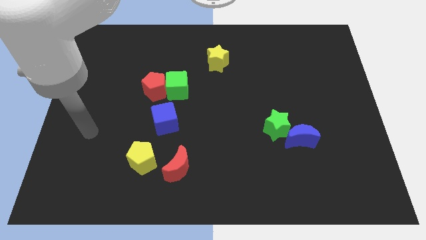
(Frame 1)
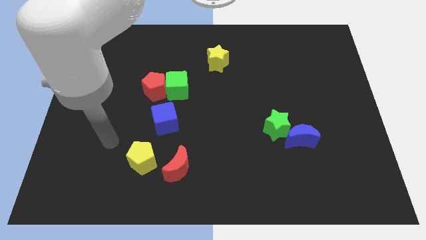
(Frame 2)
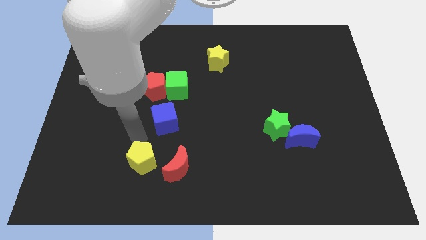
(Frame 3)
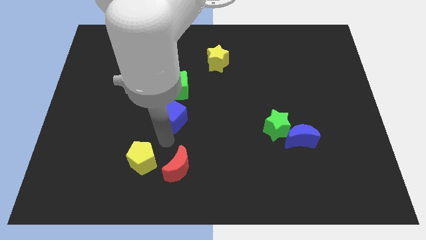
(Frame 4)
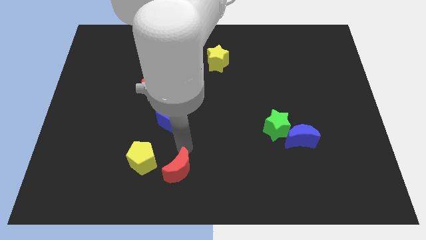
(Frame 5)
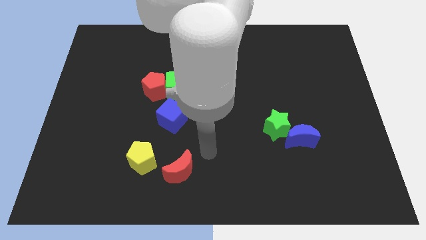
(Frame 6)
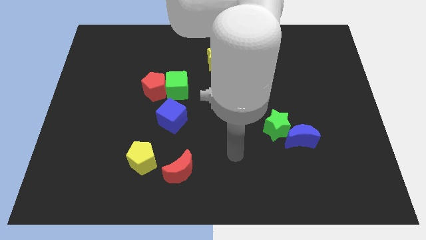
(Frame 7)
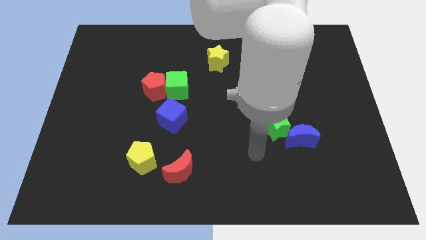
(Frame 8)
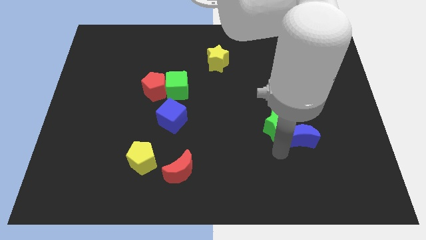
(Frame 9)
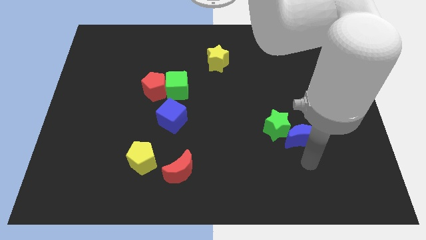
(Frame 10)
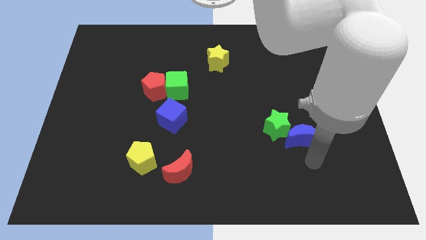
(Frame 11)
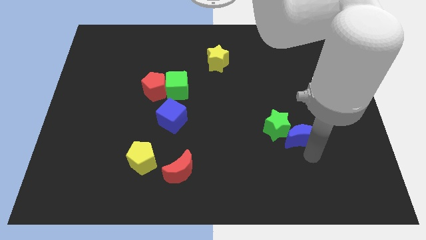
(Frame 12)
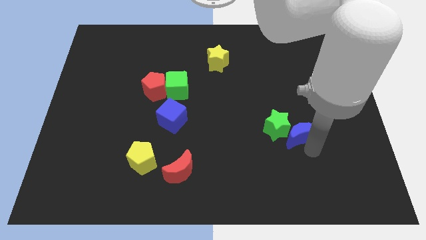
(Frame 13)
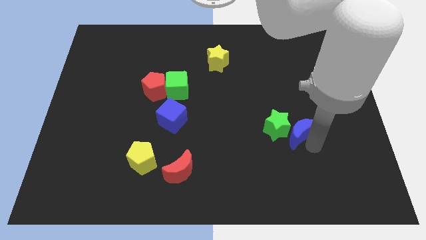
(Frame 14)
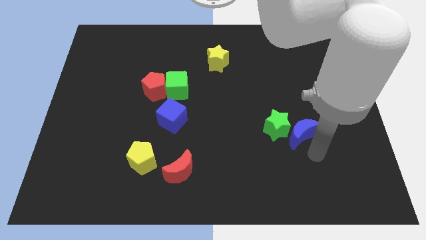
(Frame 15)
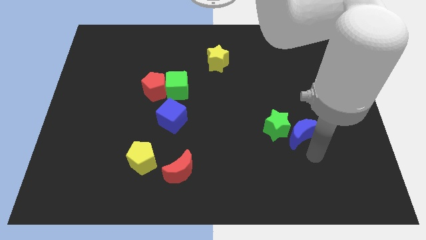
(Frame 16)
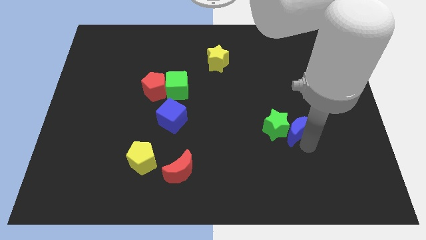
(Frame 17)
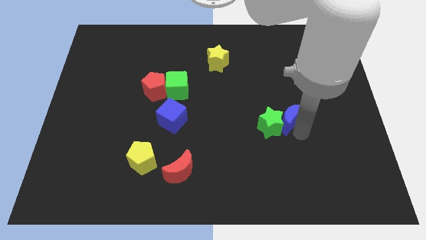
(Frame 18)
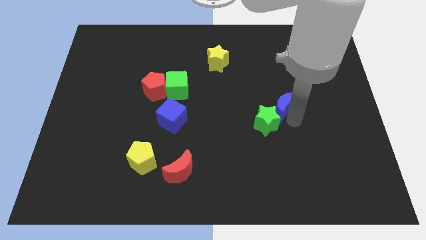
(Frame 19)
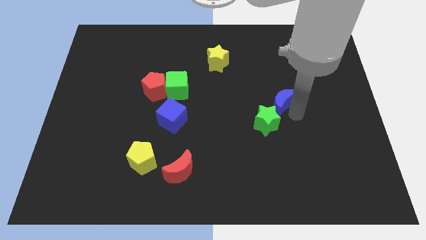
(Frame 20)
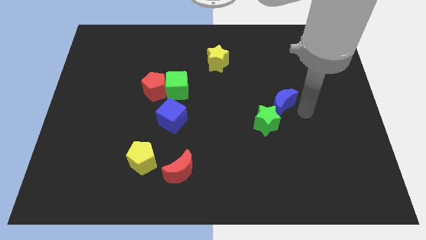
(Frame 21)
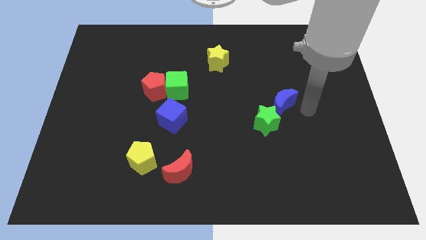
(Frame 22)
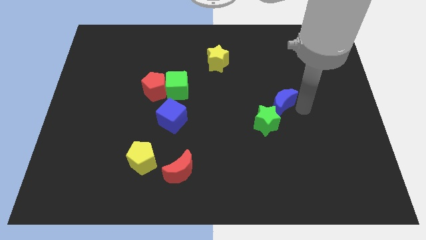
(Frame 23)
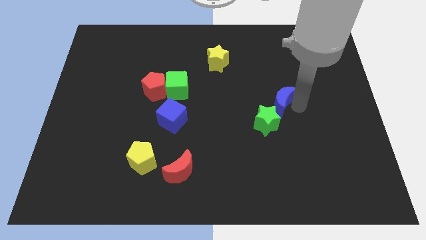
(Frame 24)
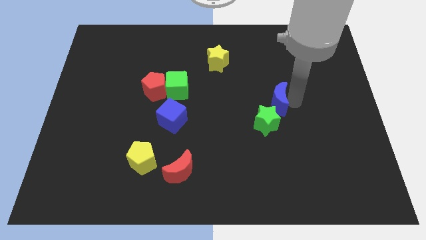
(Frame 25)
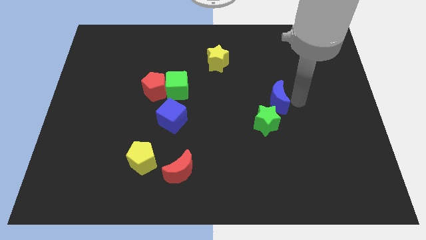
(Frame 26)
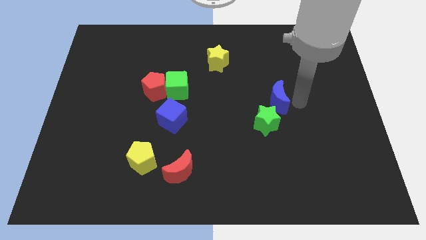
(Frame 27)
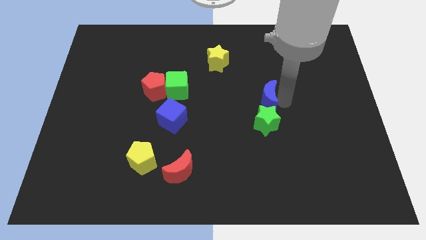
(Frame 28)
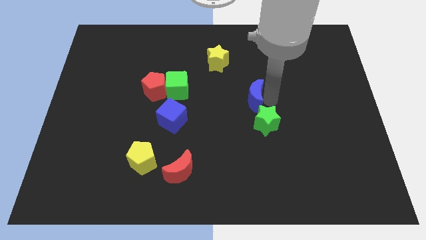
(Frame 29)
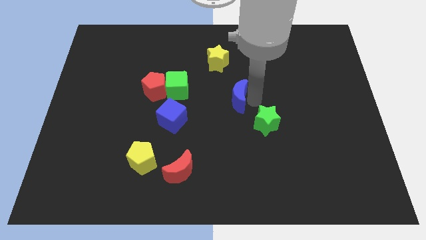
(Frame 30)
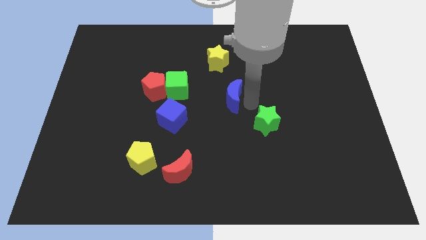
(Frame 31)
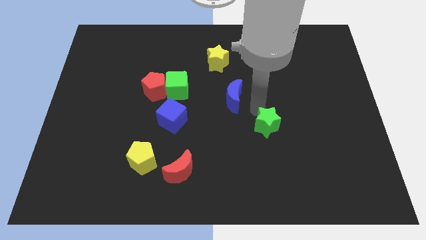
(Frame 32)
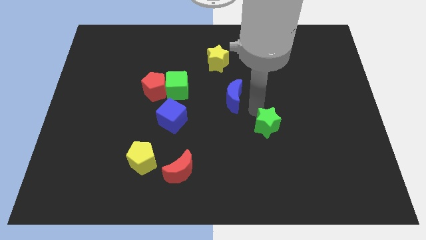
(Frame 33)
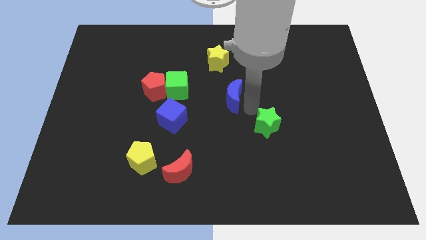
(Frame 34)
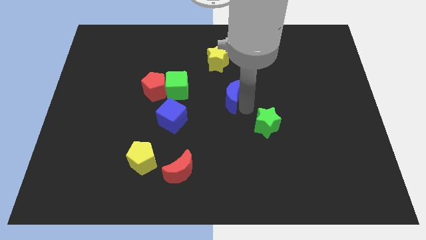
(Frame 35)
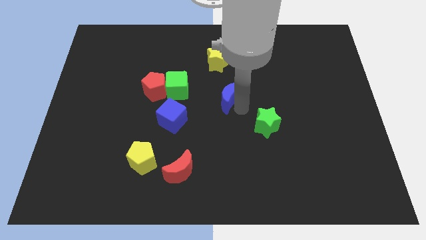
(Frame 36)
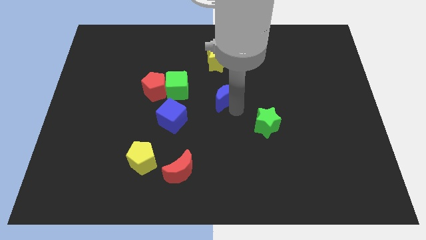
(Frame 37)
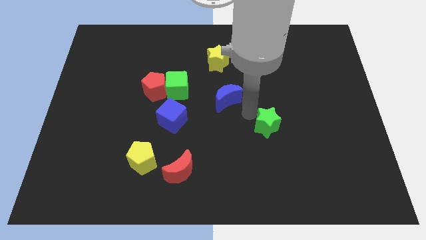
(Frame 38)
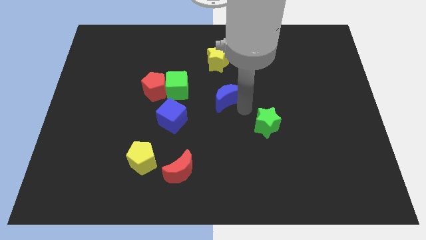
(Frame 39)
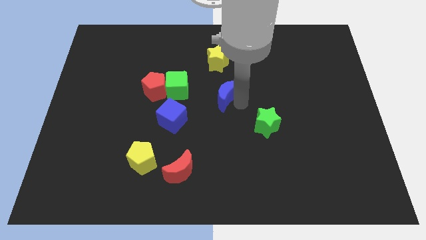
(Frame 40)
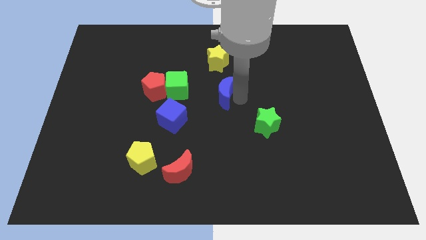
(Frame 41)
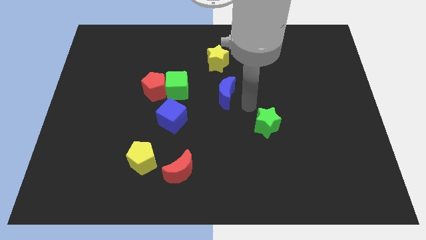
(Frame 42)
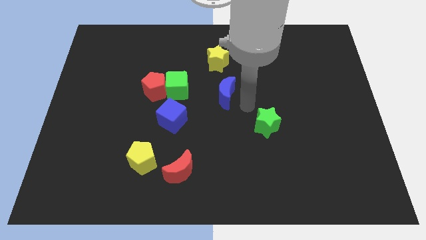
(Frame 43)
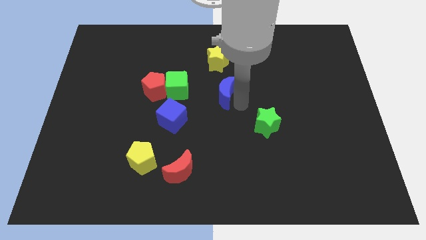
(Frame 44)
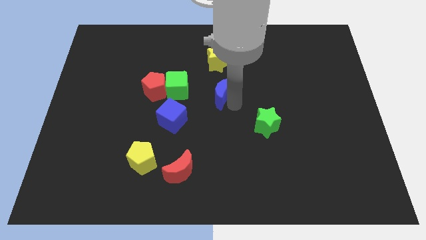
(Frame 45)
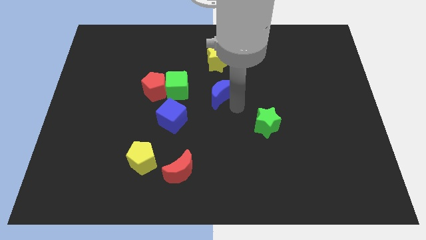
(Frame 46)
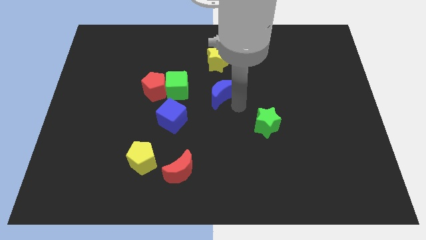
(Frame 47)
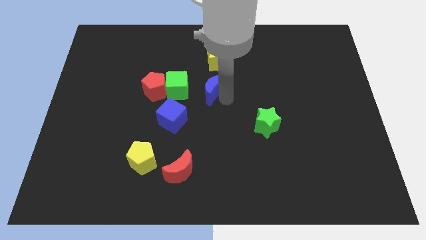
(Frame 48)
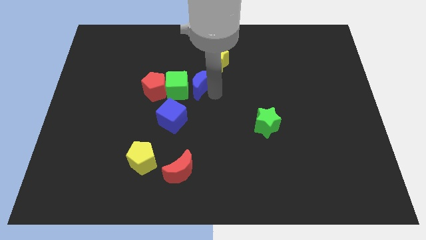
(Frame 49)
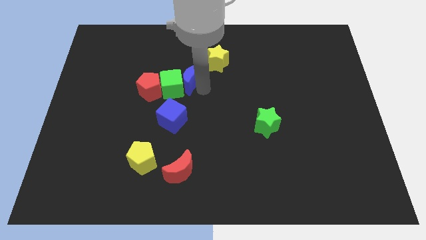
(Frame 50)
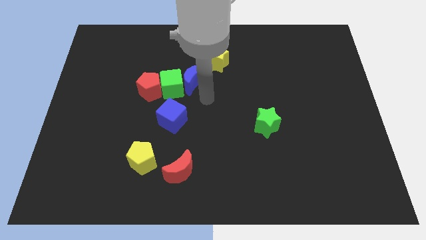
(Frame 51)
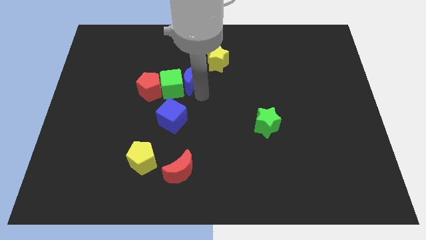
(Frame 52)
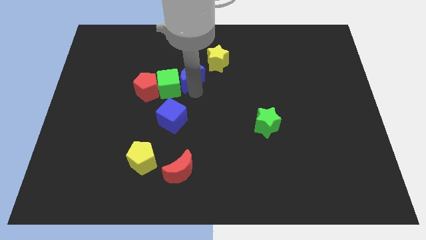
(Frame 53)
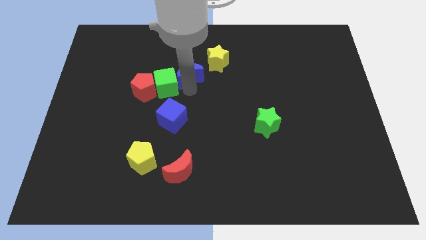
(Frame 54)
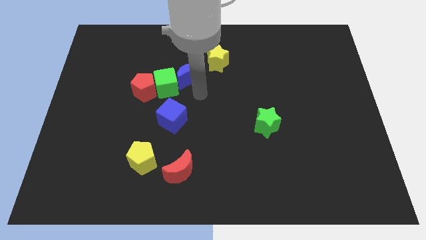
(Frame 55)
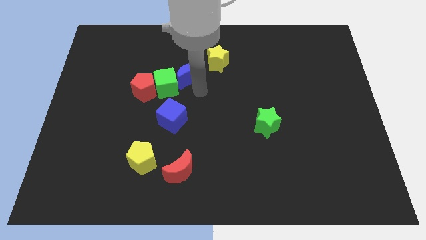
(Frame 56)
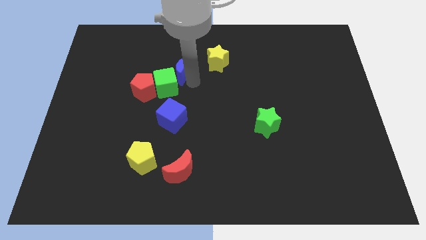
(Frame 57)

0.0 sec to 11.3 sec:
slide the blue moon just left of the yellow star

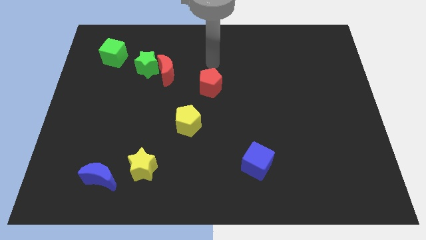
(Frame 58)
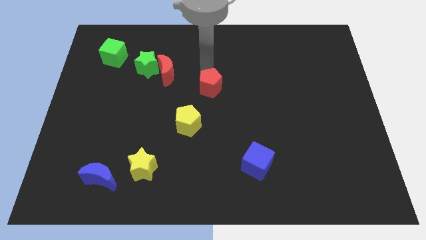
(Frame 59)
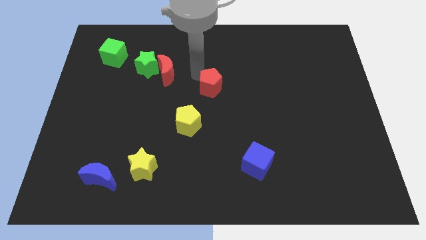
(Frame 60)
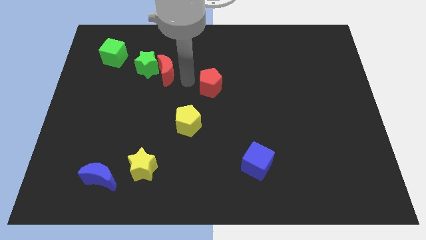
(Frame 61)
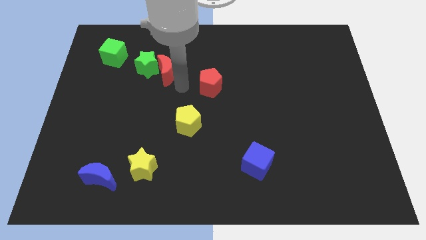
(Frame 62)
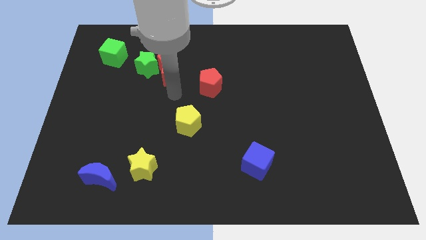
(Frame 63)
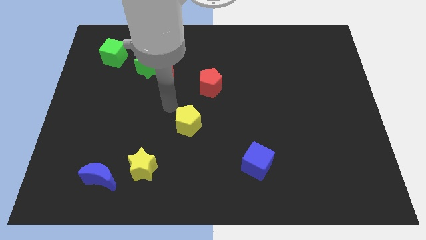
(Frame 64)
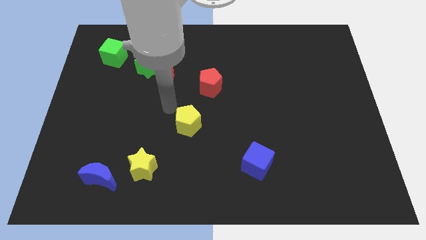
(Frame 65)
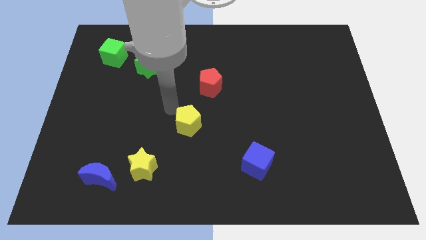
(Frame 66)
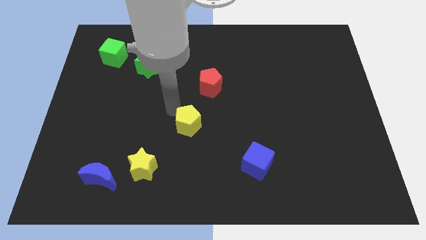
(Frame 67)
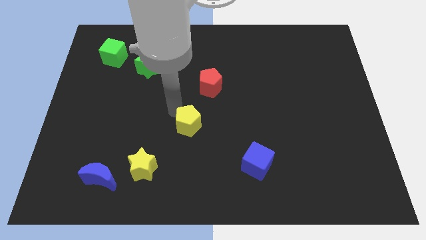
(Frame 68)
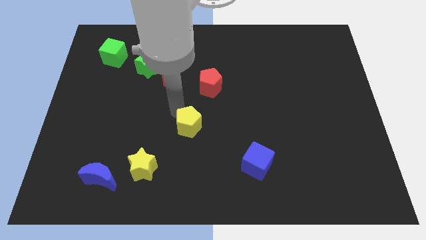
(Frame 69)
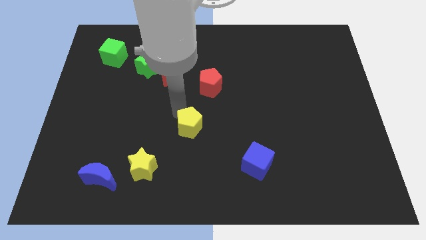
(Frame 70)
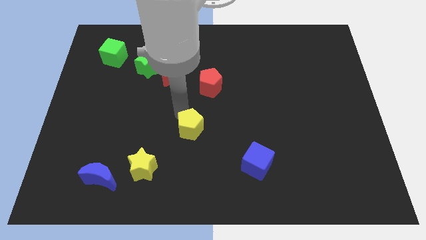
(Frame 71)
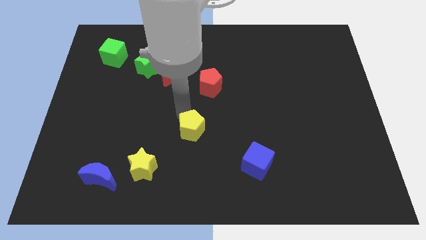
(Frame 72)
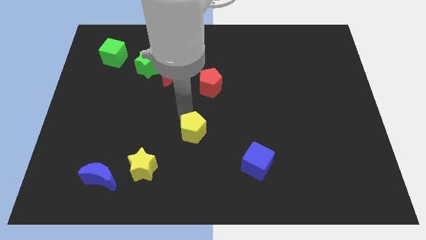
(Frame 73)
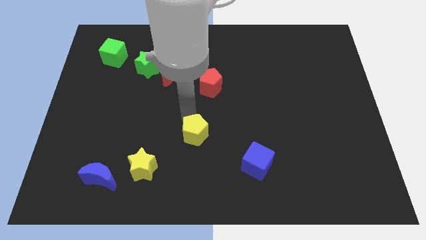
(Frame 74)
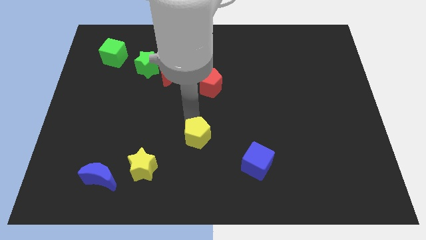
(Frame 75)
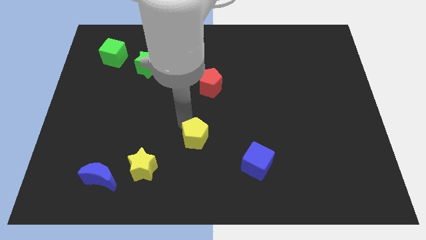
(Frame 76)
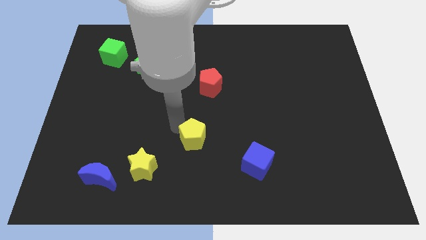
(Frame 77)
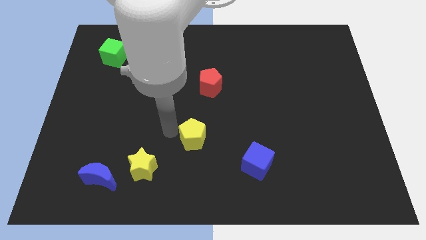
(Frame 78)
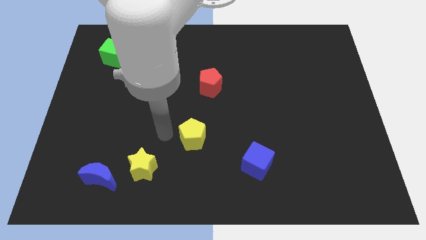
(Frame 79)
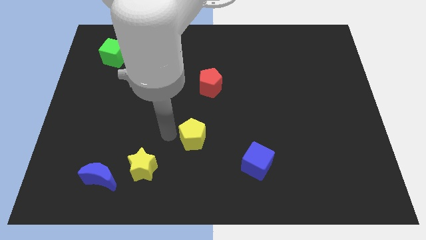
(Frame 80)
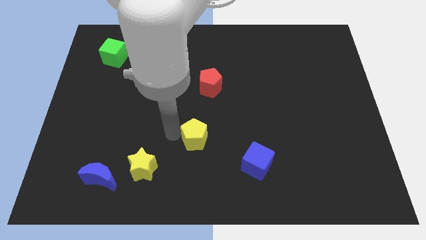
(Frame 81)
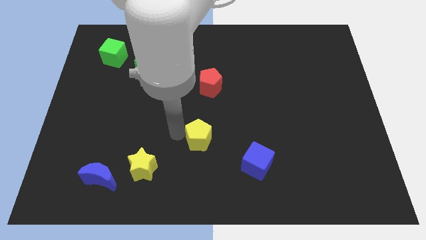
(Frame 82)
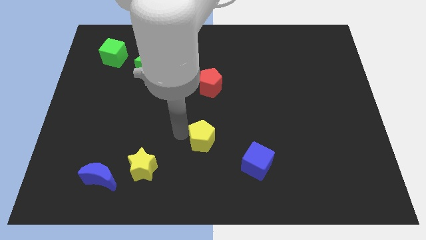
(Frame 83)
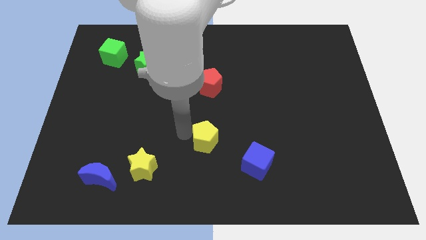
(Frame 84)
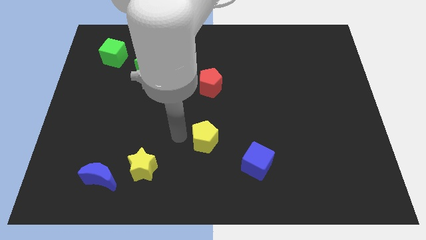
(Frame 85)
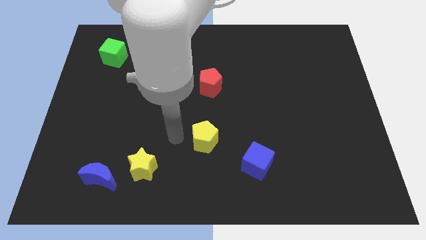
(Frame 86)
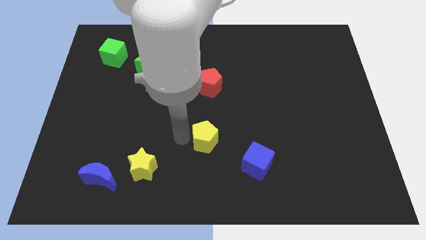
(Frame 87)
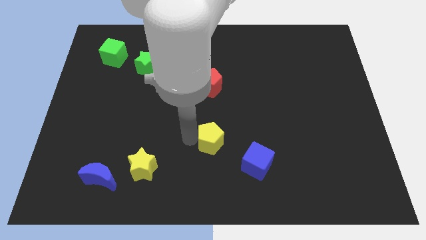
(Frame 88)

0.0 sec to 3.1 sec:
put the yellow pentagon to the top left of the blue cube
